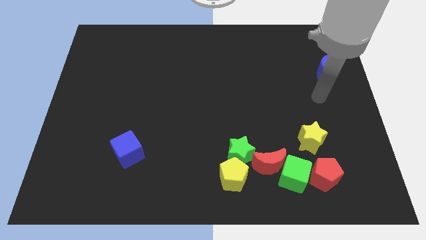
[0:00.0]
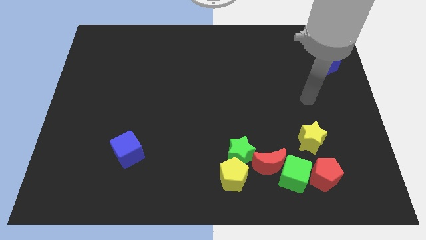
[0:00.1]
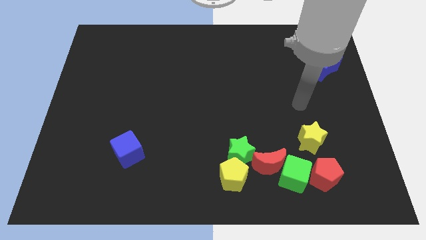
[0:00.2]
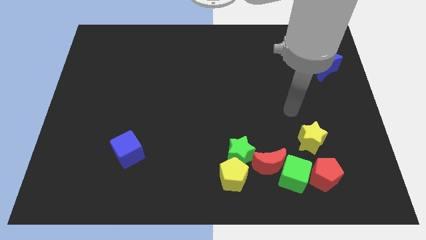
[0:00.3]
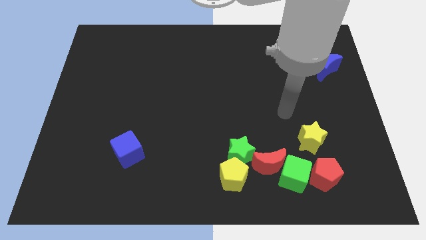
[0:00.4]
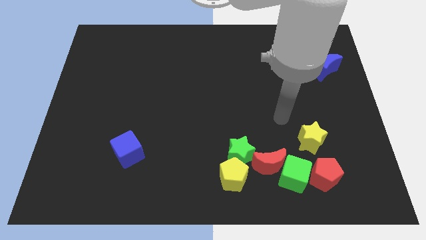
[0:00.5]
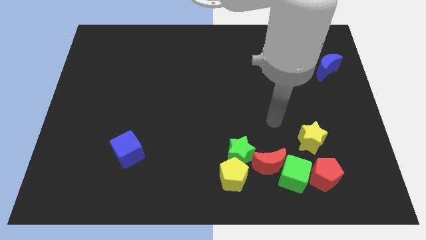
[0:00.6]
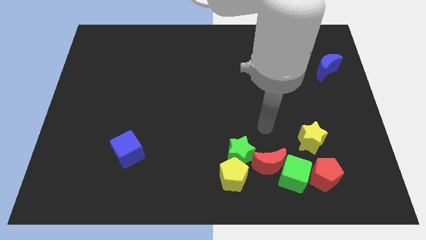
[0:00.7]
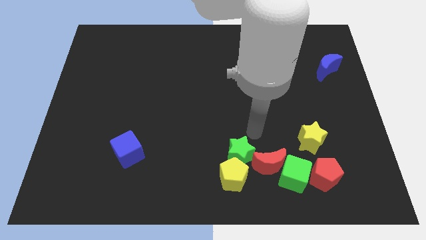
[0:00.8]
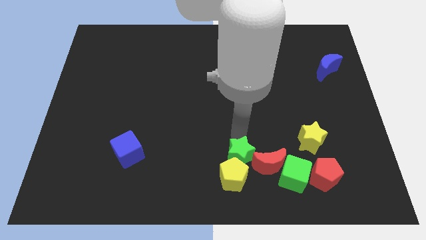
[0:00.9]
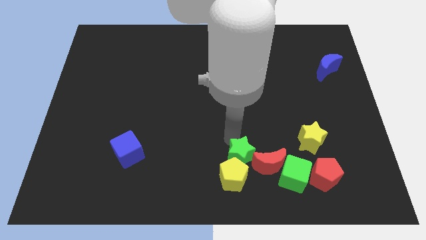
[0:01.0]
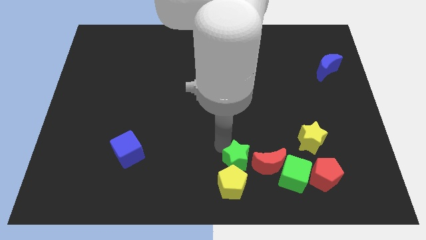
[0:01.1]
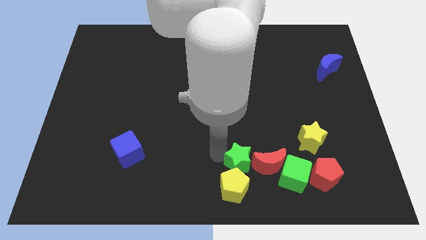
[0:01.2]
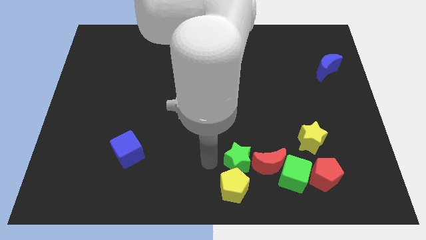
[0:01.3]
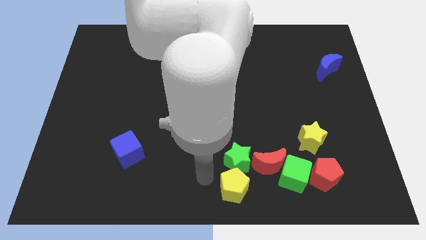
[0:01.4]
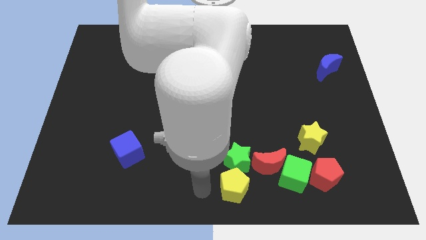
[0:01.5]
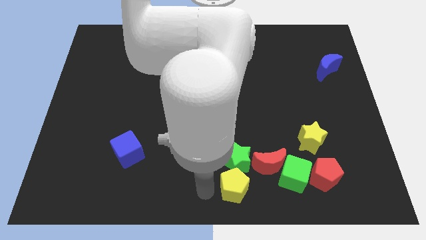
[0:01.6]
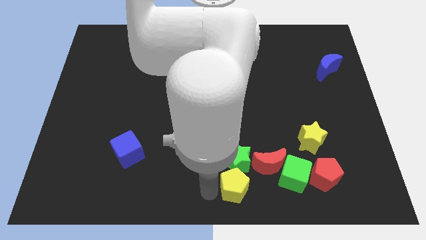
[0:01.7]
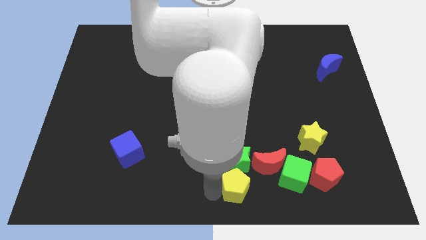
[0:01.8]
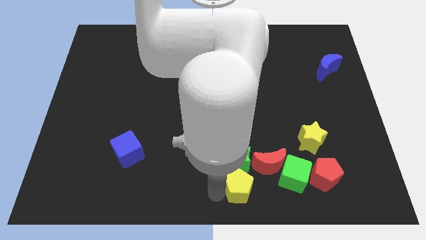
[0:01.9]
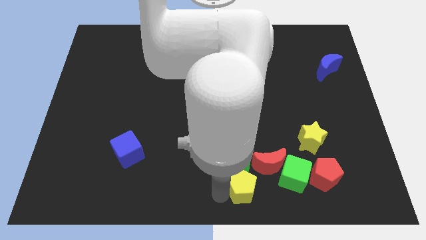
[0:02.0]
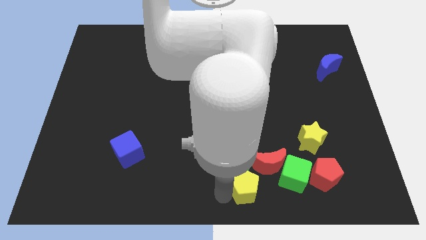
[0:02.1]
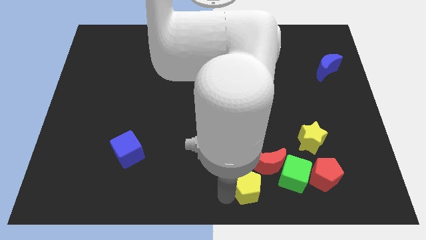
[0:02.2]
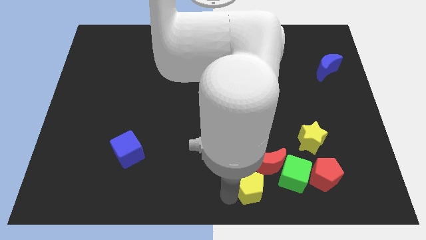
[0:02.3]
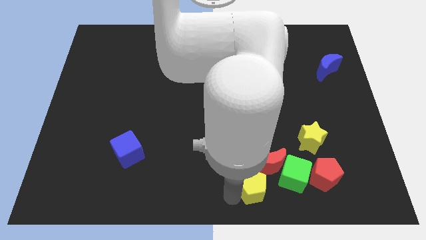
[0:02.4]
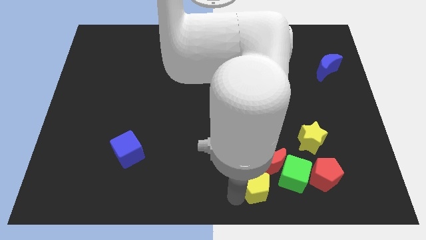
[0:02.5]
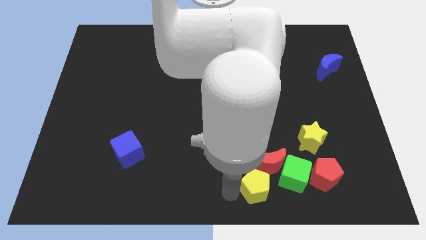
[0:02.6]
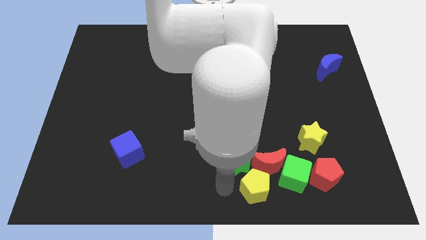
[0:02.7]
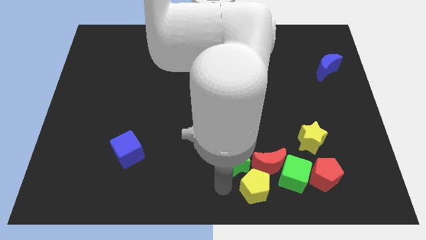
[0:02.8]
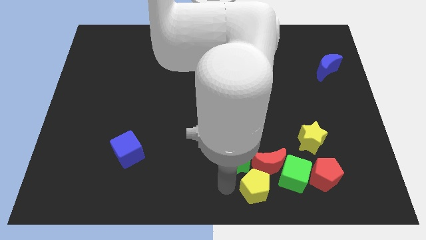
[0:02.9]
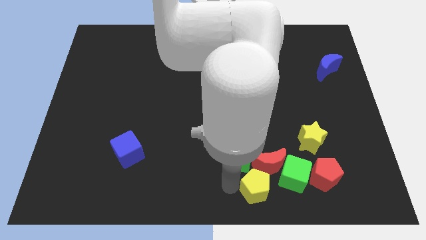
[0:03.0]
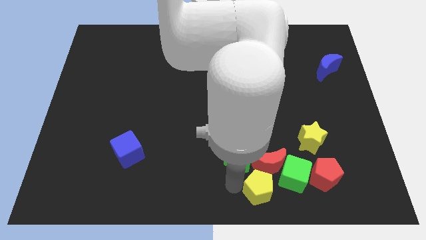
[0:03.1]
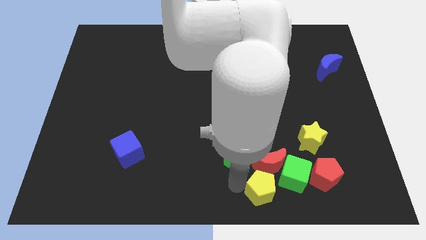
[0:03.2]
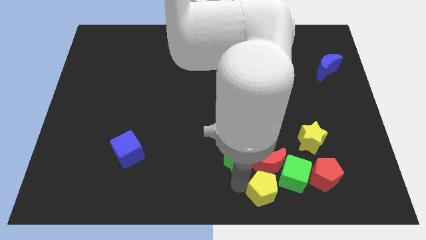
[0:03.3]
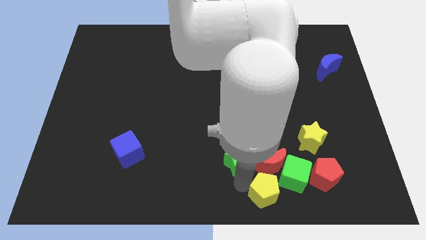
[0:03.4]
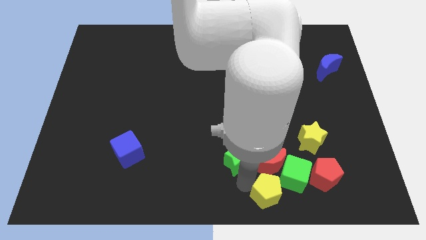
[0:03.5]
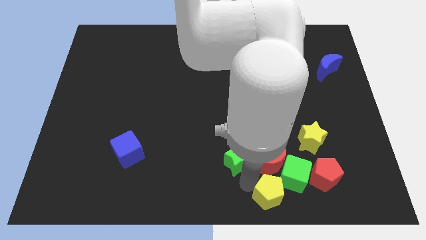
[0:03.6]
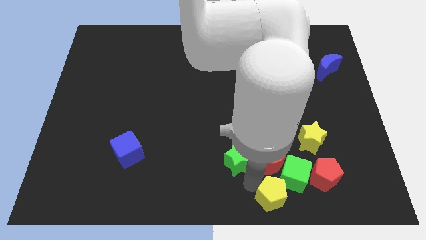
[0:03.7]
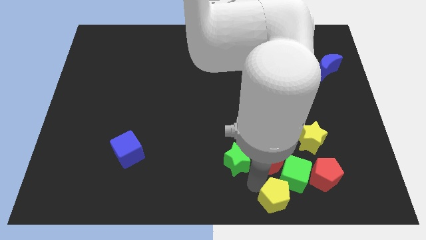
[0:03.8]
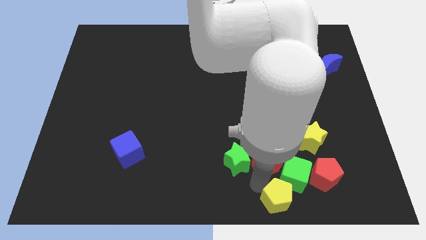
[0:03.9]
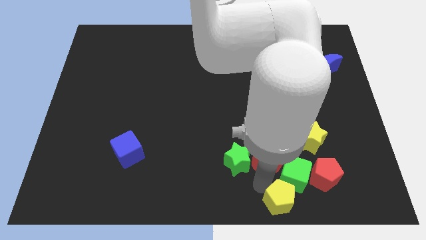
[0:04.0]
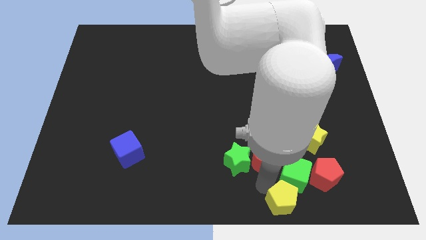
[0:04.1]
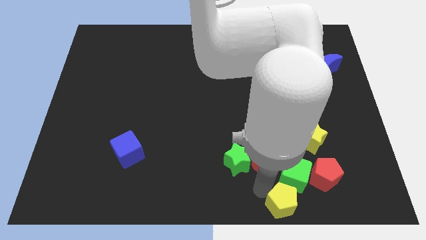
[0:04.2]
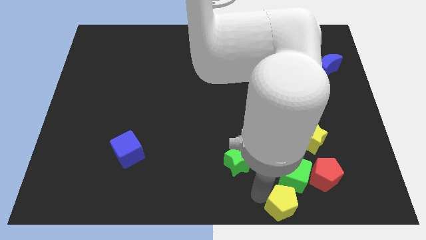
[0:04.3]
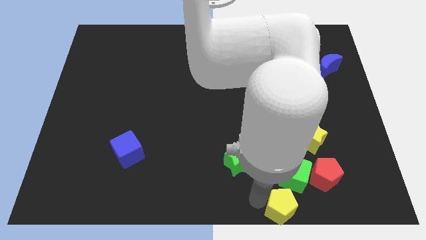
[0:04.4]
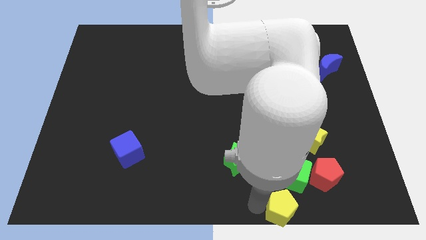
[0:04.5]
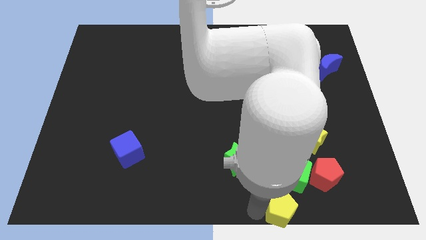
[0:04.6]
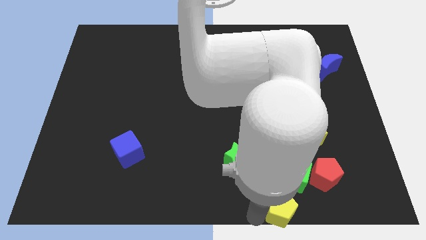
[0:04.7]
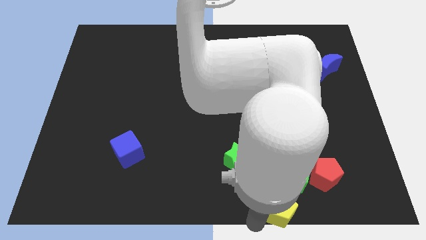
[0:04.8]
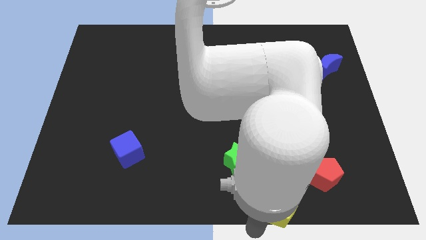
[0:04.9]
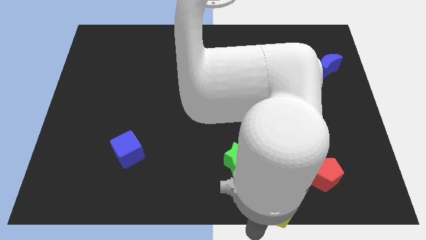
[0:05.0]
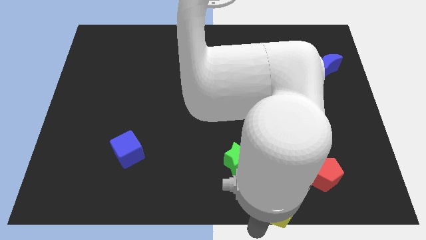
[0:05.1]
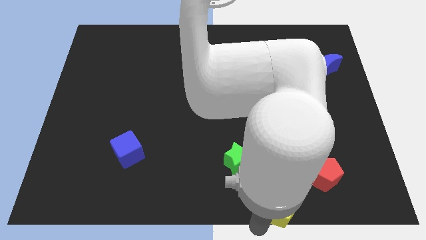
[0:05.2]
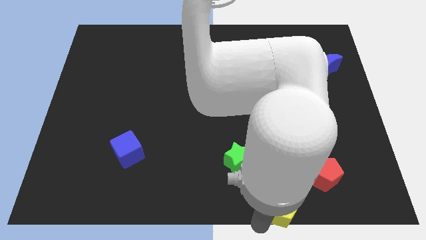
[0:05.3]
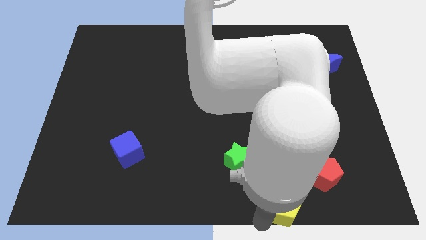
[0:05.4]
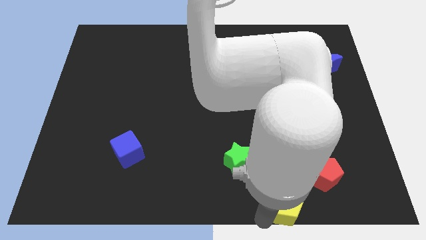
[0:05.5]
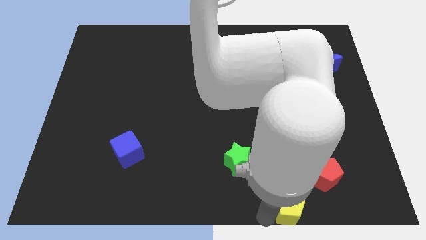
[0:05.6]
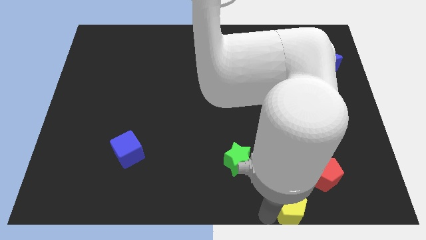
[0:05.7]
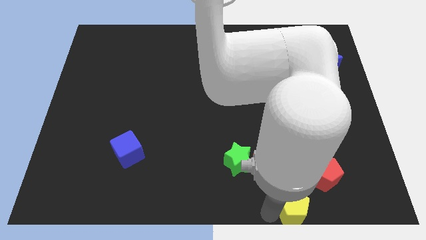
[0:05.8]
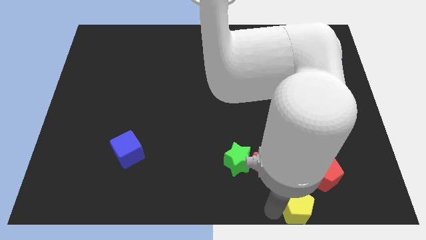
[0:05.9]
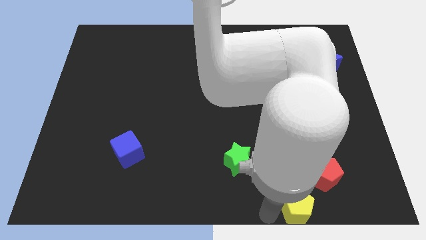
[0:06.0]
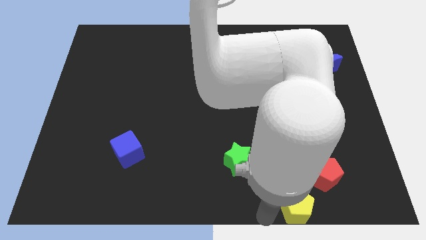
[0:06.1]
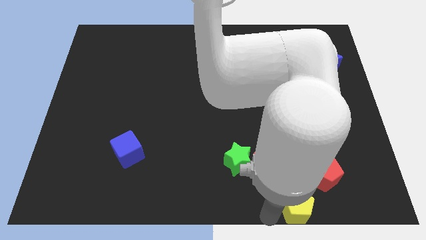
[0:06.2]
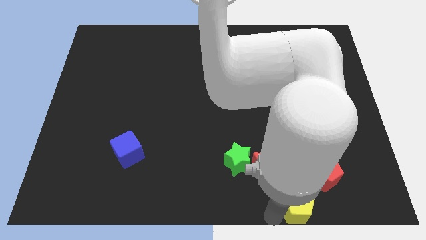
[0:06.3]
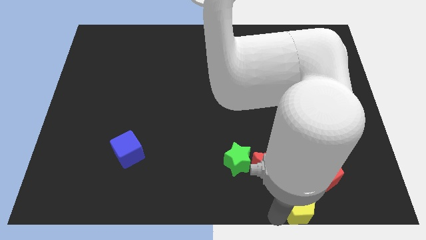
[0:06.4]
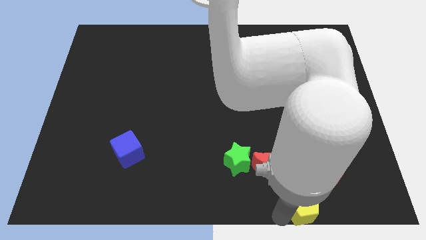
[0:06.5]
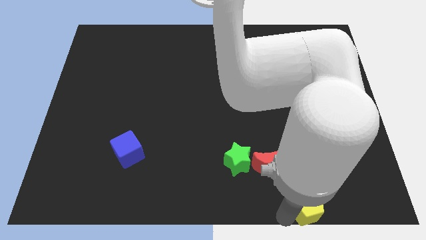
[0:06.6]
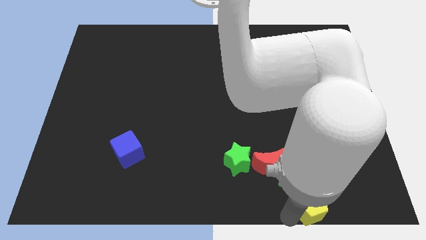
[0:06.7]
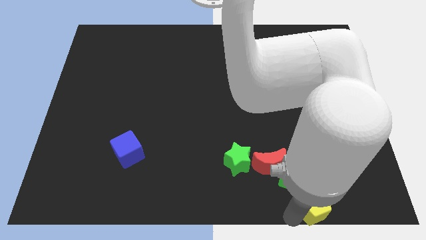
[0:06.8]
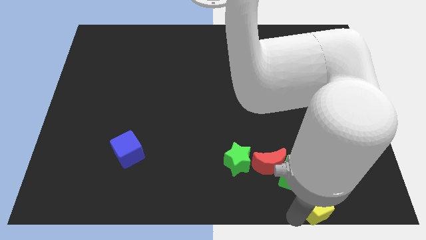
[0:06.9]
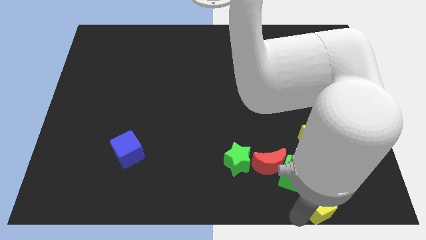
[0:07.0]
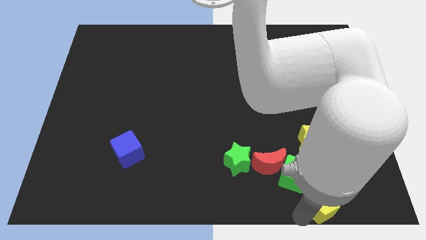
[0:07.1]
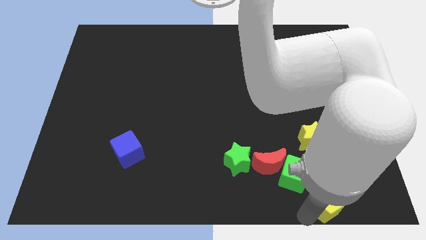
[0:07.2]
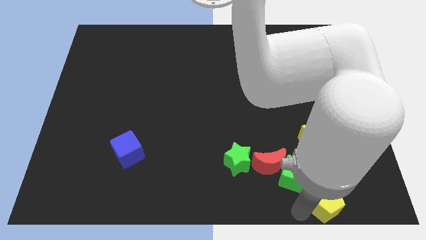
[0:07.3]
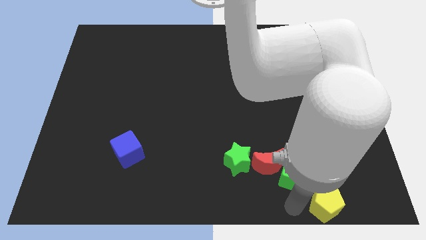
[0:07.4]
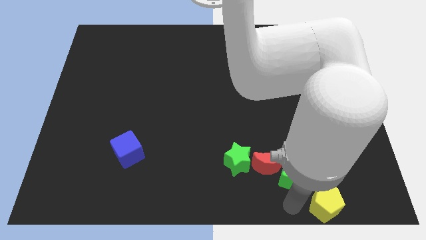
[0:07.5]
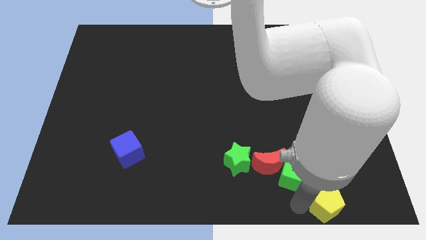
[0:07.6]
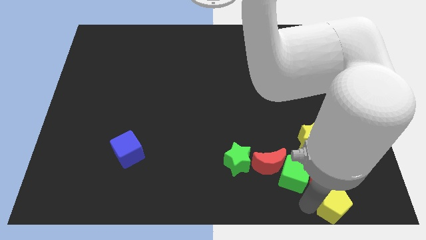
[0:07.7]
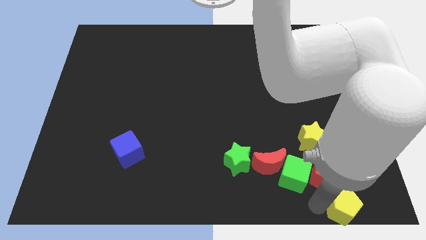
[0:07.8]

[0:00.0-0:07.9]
put the yellow pentagon to the lower right corner
